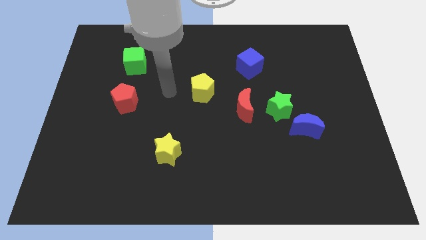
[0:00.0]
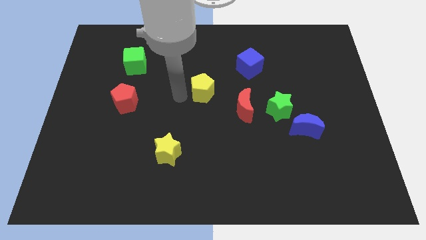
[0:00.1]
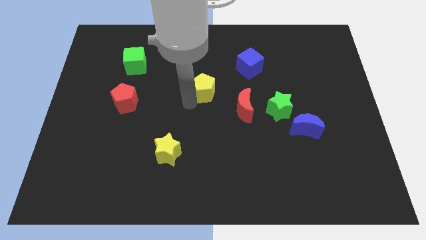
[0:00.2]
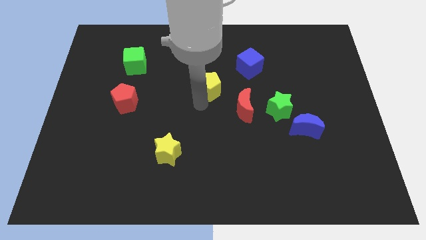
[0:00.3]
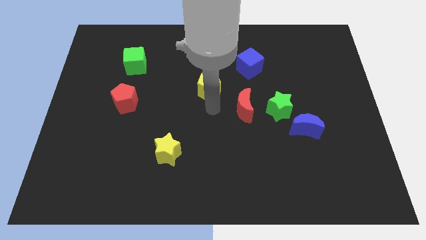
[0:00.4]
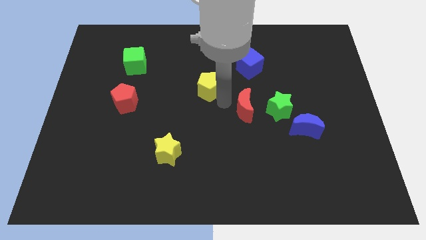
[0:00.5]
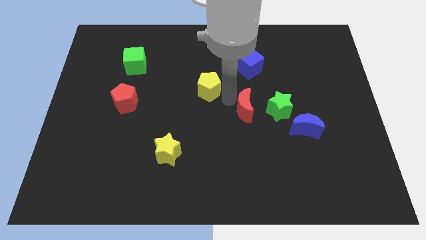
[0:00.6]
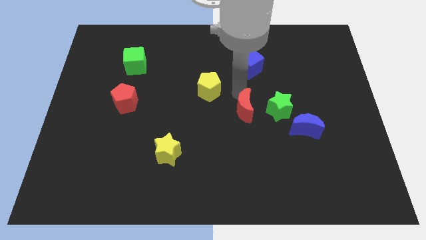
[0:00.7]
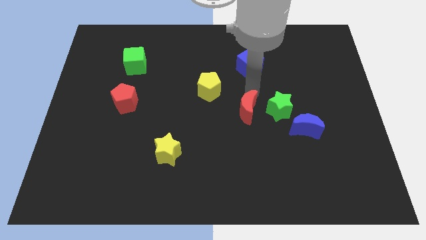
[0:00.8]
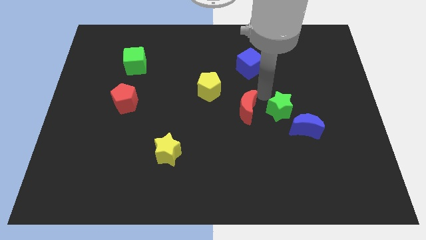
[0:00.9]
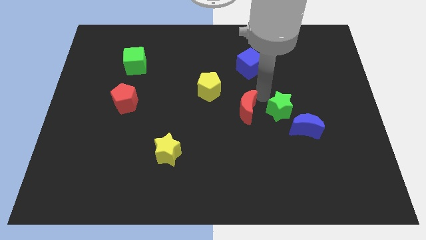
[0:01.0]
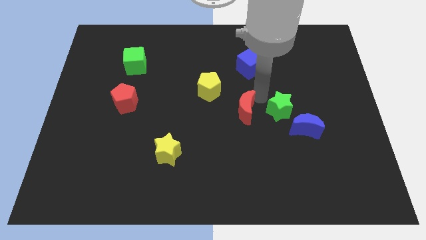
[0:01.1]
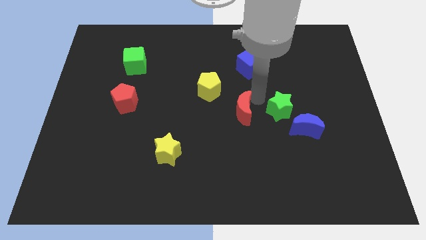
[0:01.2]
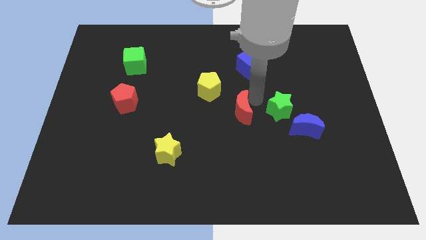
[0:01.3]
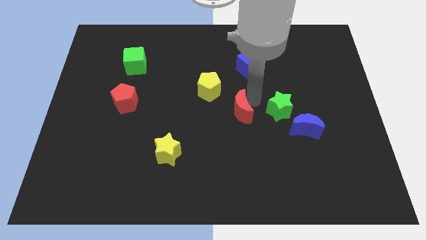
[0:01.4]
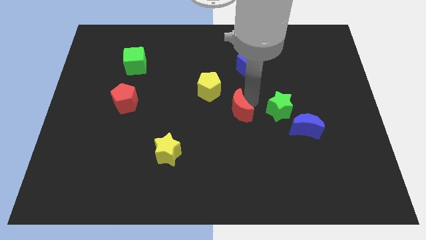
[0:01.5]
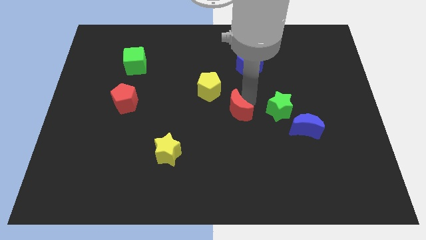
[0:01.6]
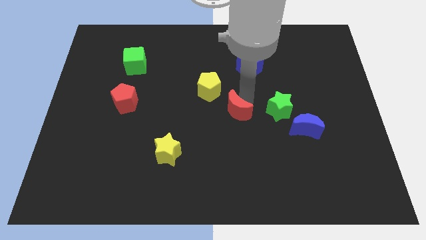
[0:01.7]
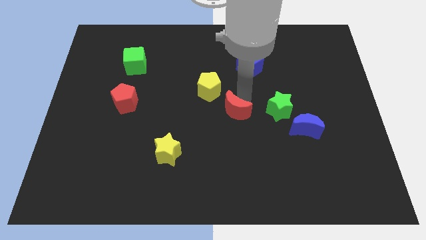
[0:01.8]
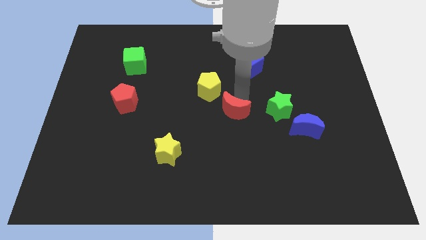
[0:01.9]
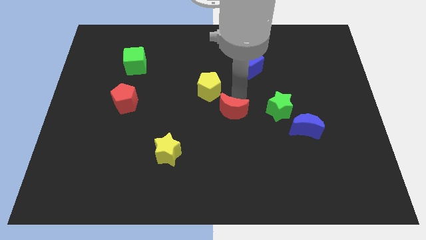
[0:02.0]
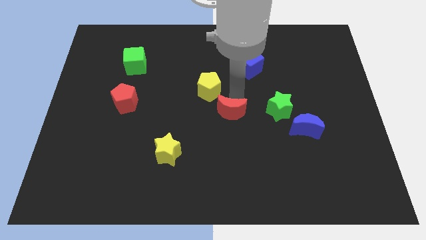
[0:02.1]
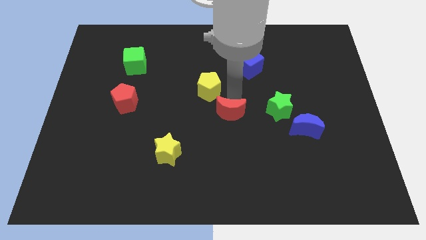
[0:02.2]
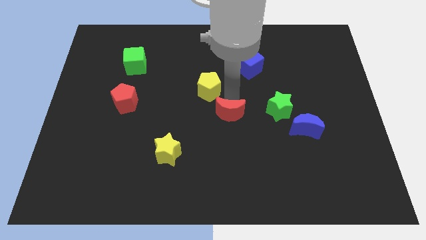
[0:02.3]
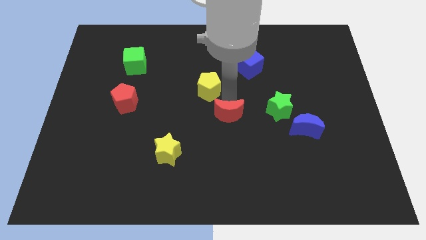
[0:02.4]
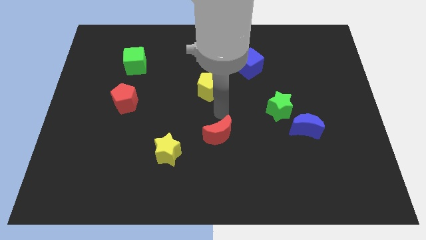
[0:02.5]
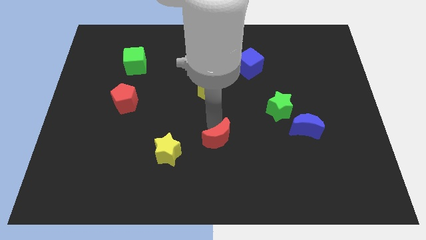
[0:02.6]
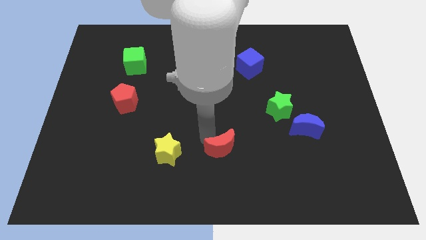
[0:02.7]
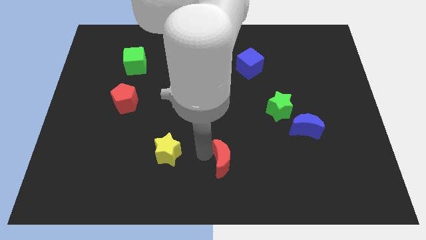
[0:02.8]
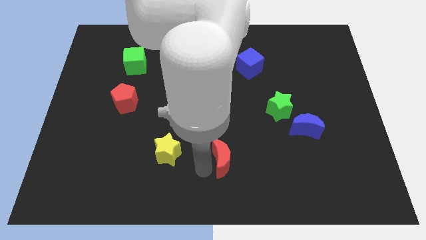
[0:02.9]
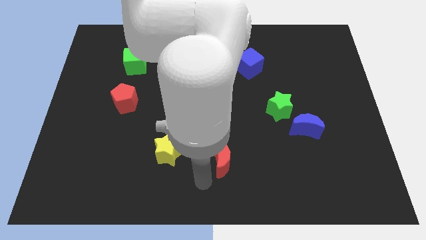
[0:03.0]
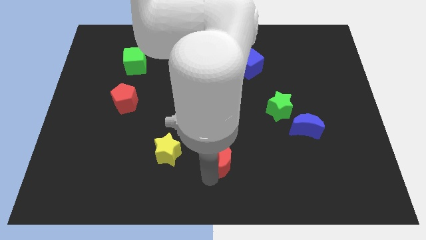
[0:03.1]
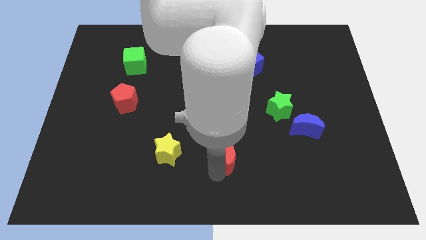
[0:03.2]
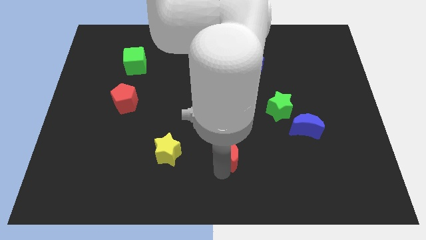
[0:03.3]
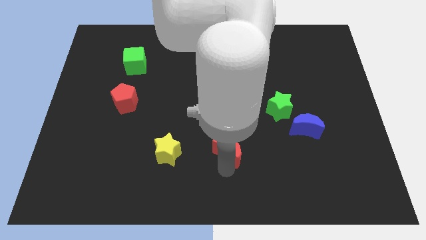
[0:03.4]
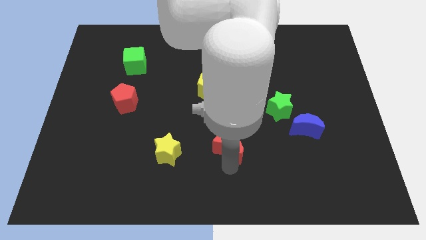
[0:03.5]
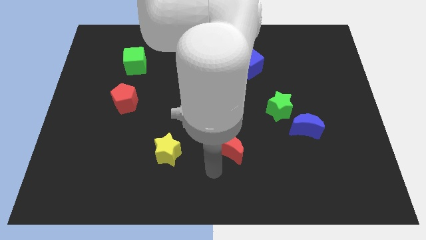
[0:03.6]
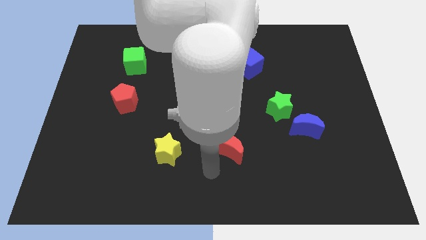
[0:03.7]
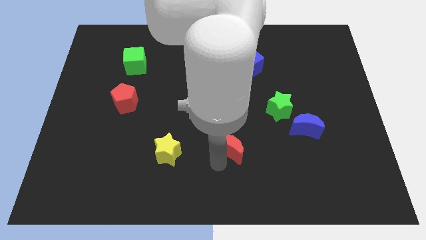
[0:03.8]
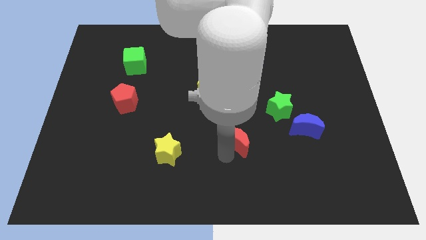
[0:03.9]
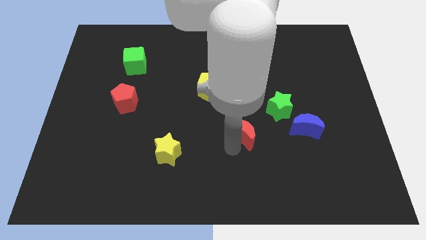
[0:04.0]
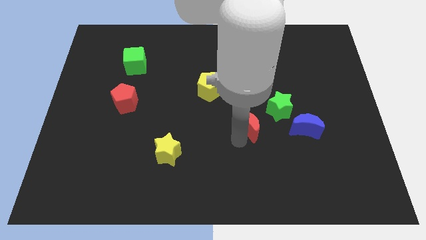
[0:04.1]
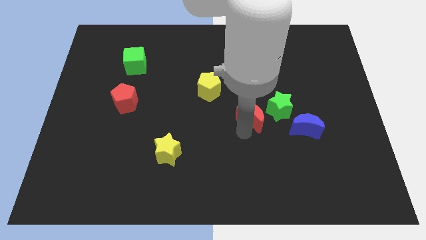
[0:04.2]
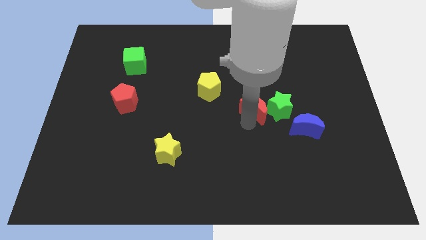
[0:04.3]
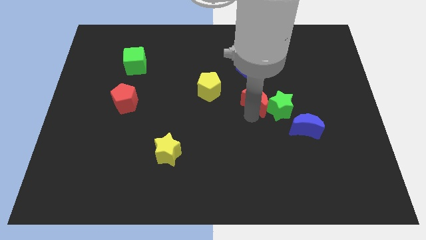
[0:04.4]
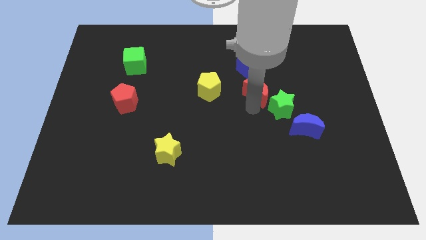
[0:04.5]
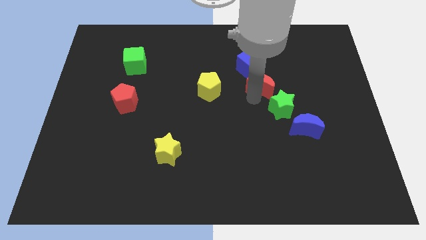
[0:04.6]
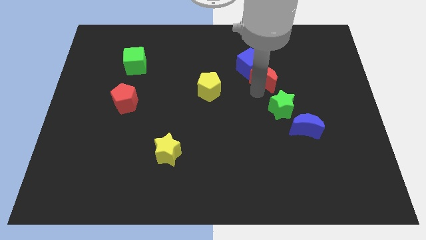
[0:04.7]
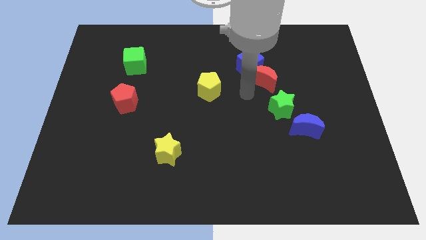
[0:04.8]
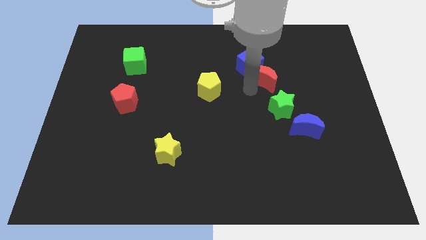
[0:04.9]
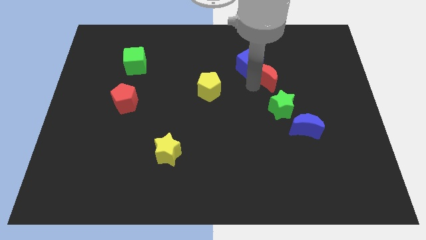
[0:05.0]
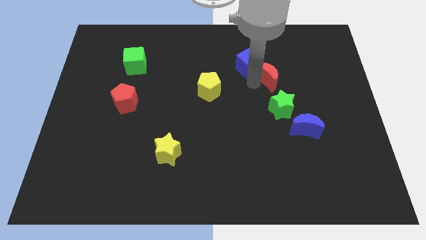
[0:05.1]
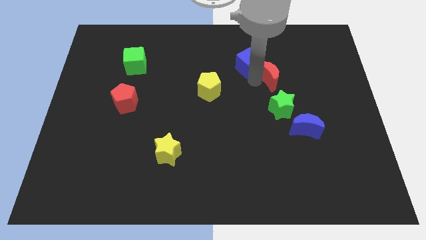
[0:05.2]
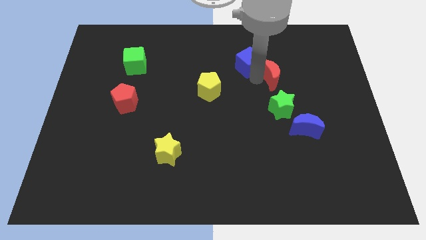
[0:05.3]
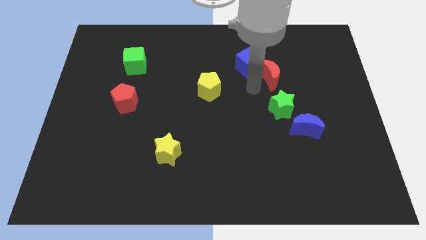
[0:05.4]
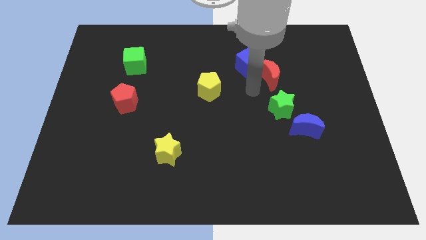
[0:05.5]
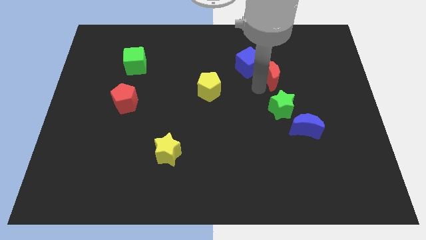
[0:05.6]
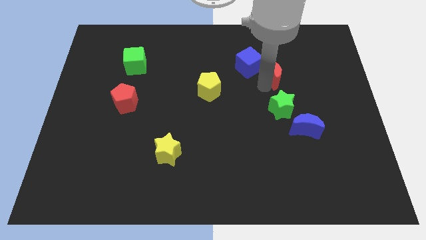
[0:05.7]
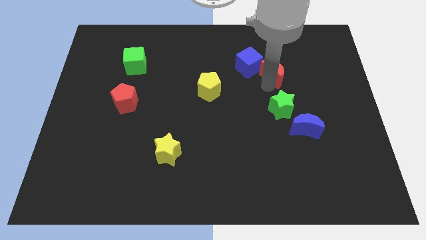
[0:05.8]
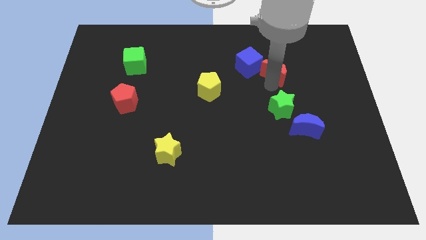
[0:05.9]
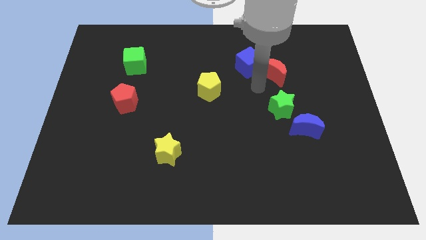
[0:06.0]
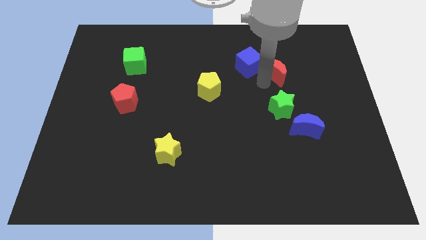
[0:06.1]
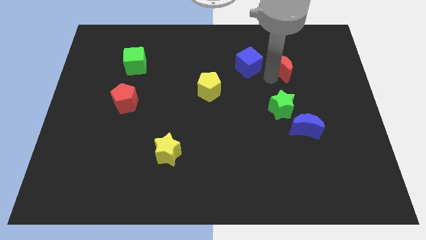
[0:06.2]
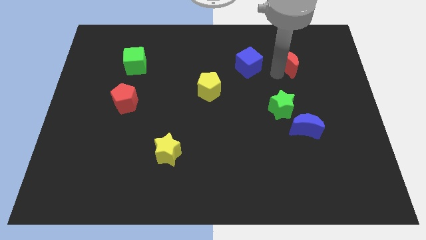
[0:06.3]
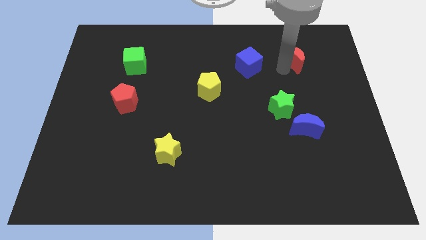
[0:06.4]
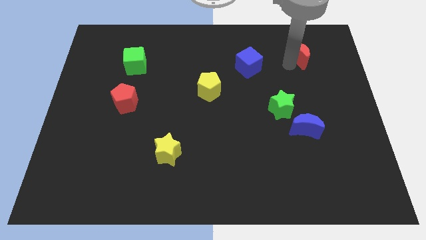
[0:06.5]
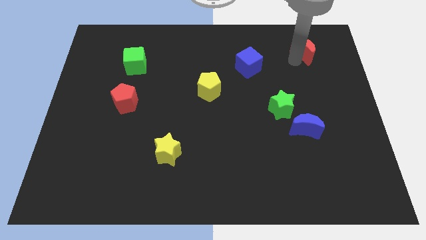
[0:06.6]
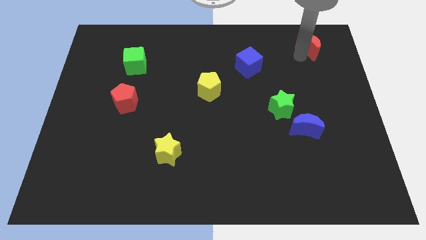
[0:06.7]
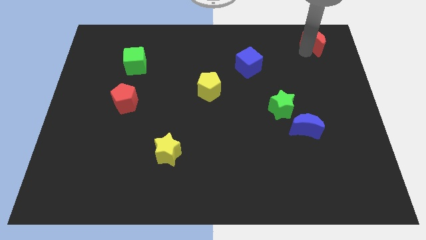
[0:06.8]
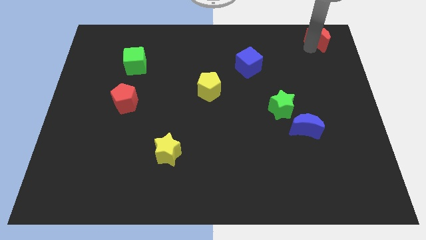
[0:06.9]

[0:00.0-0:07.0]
slide the red moon to the top right corner
